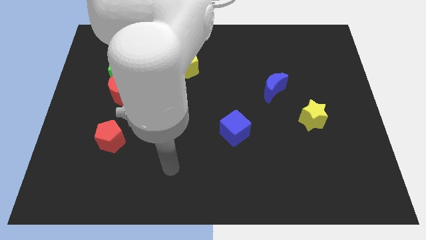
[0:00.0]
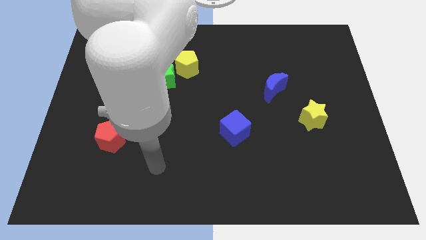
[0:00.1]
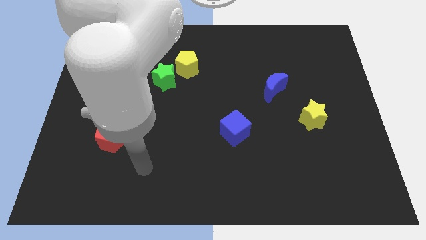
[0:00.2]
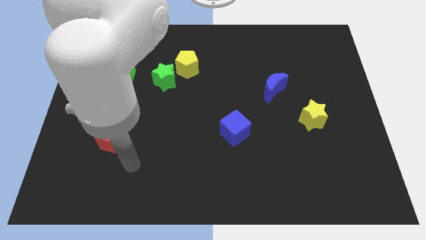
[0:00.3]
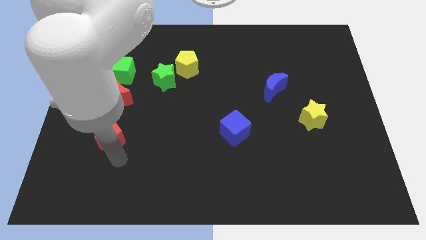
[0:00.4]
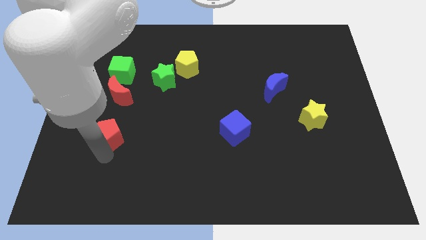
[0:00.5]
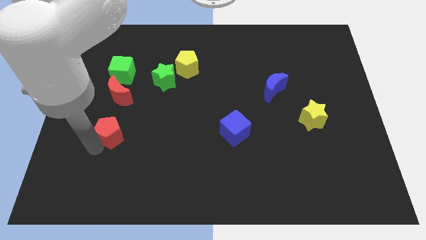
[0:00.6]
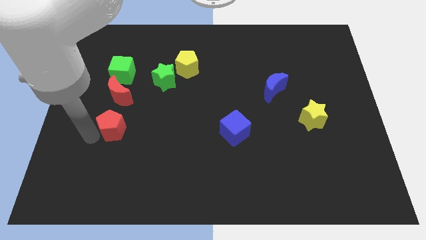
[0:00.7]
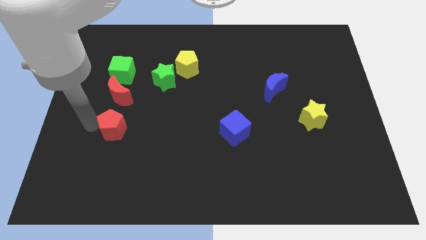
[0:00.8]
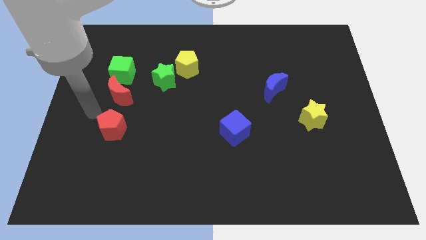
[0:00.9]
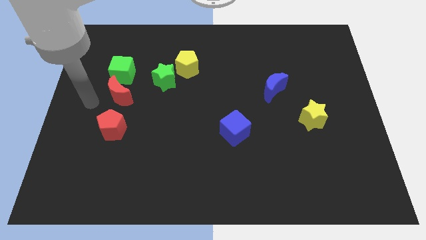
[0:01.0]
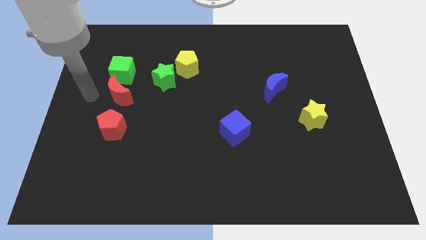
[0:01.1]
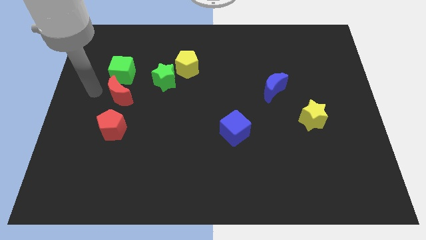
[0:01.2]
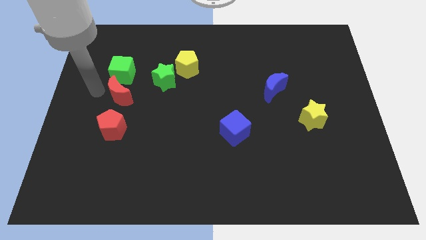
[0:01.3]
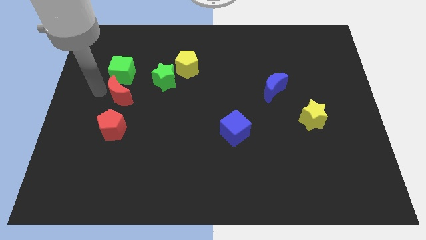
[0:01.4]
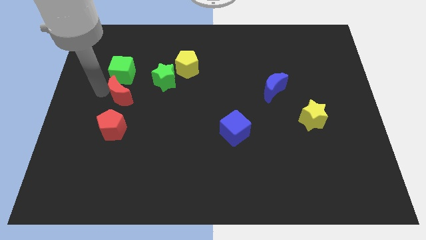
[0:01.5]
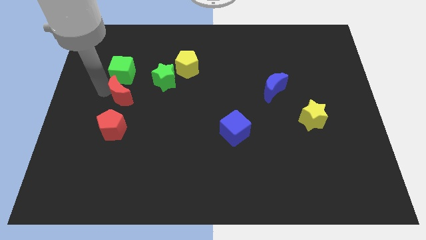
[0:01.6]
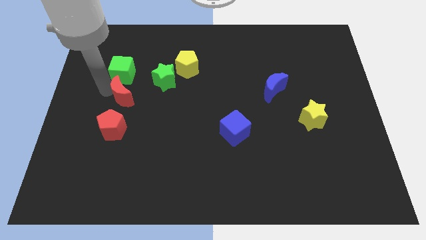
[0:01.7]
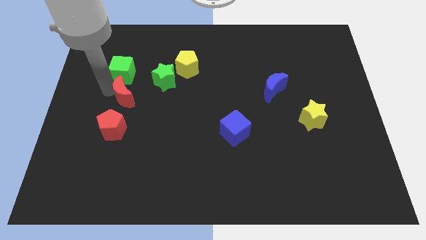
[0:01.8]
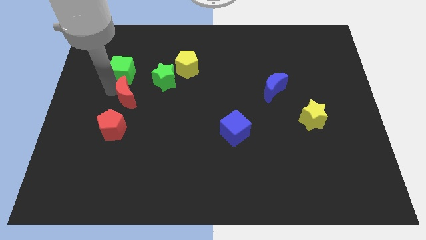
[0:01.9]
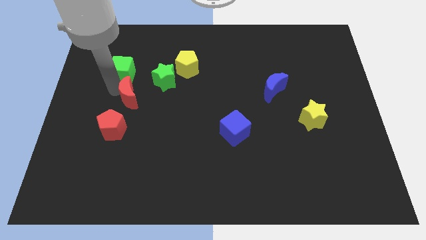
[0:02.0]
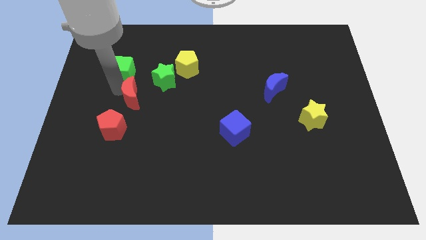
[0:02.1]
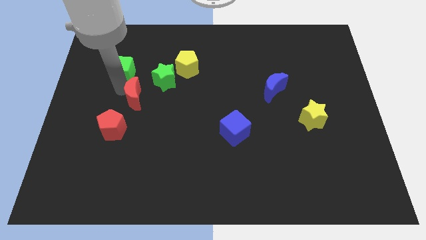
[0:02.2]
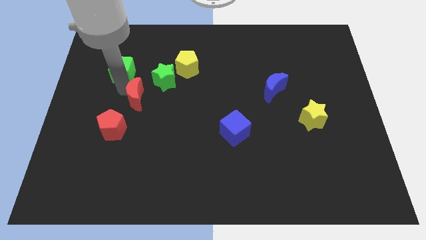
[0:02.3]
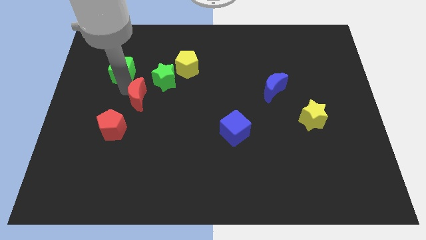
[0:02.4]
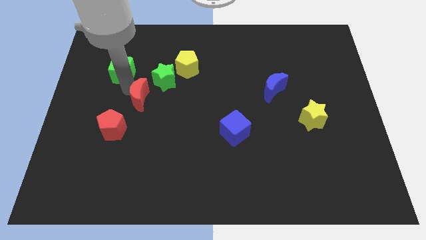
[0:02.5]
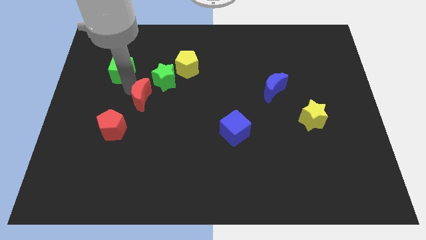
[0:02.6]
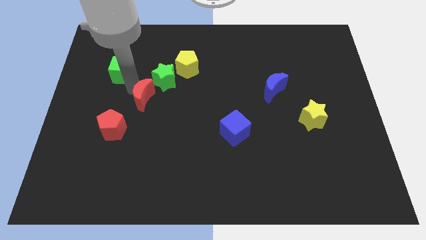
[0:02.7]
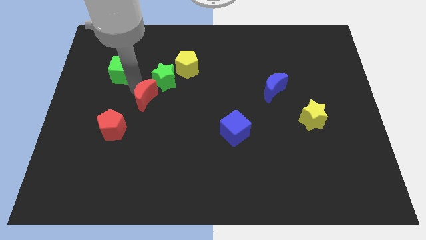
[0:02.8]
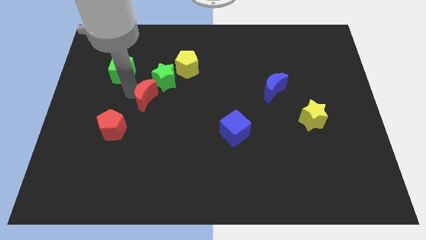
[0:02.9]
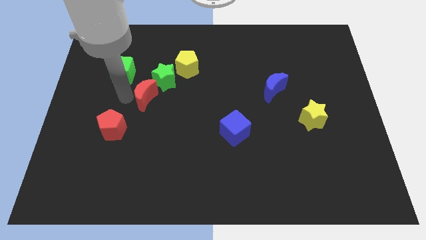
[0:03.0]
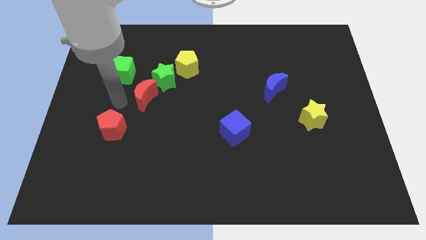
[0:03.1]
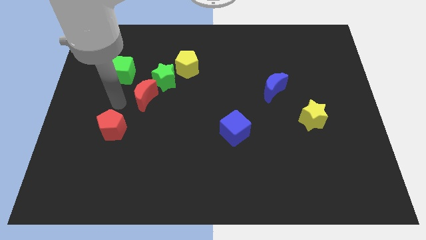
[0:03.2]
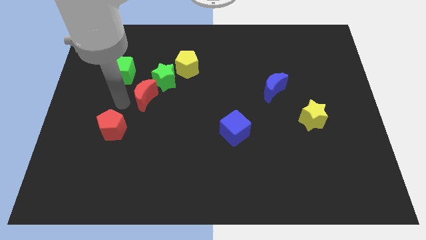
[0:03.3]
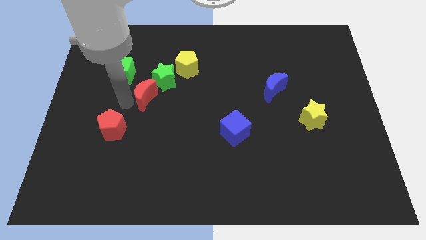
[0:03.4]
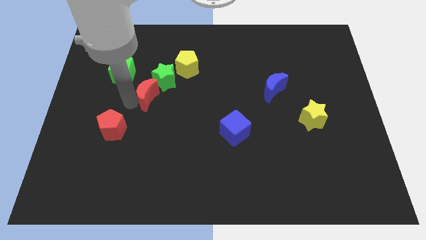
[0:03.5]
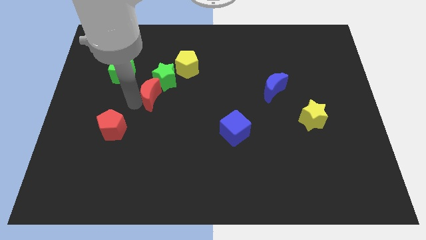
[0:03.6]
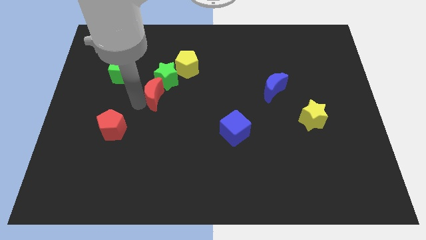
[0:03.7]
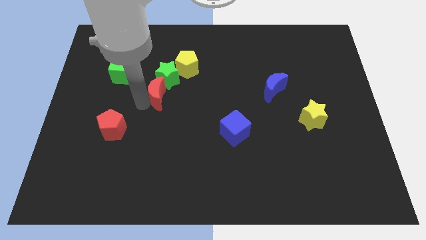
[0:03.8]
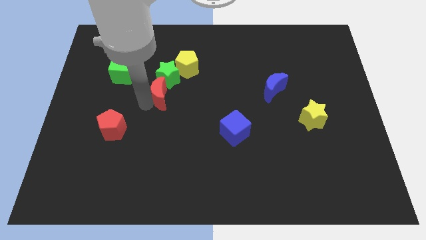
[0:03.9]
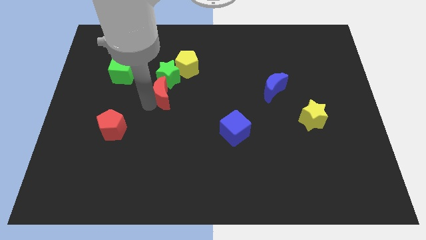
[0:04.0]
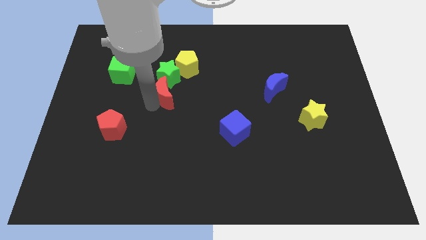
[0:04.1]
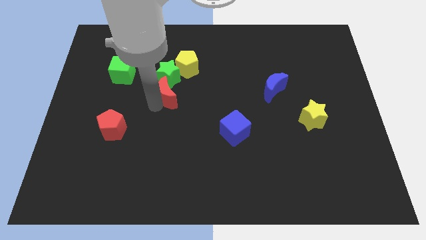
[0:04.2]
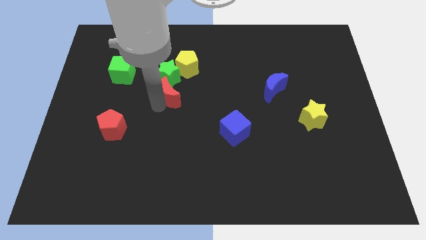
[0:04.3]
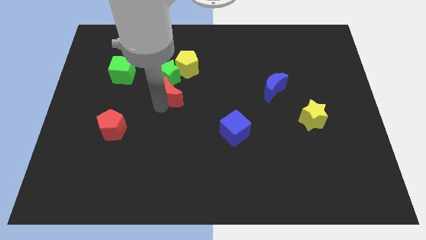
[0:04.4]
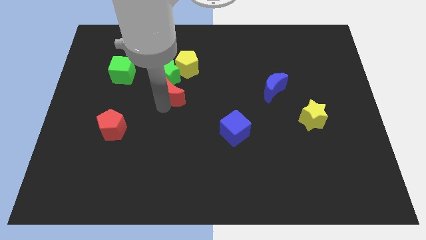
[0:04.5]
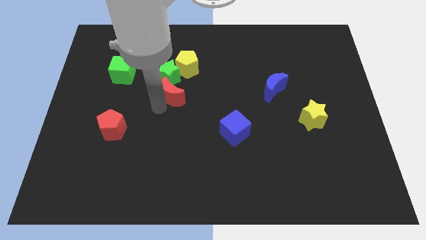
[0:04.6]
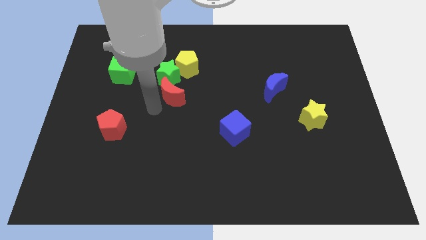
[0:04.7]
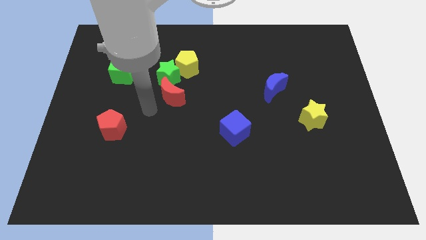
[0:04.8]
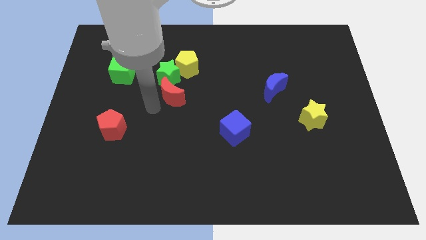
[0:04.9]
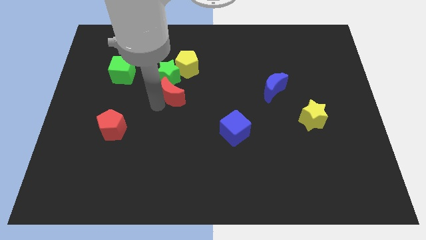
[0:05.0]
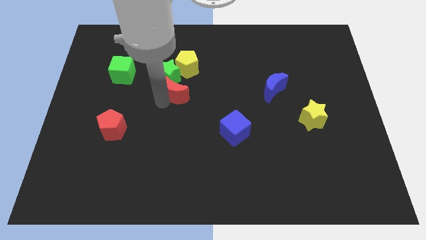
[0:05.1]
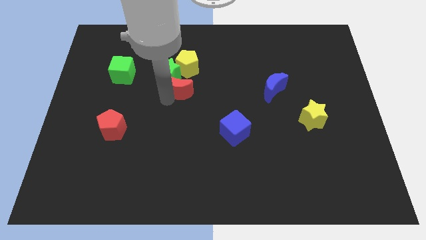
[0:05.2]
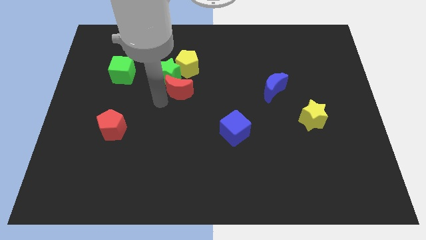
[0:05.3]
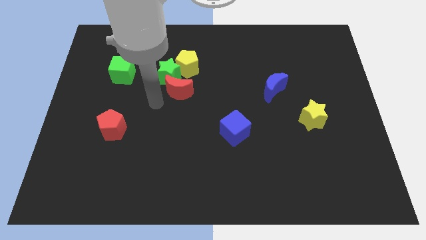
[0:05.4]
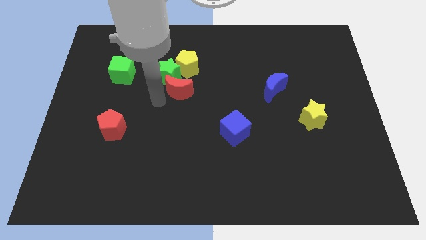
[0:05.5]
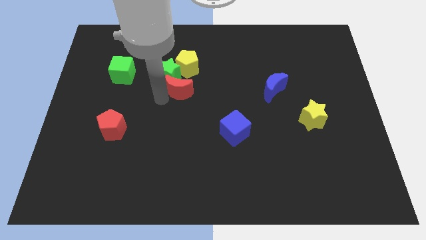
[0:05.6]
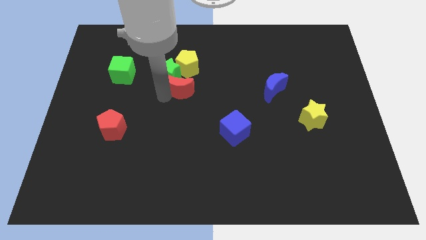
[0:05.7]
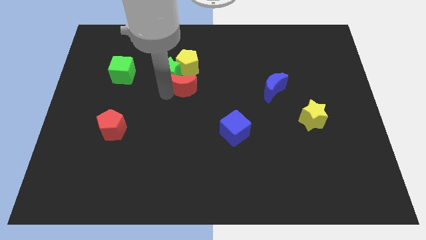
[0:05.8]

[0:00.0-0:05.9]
slide the red moon to the right of the green star

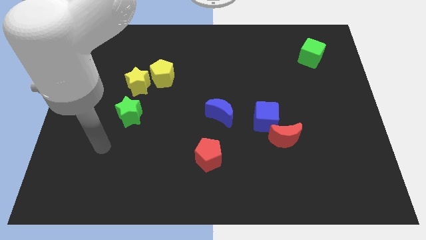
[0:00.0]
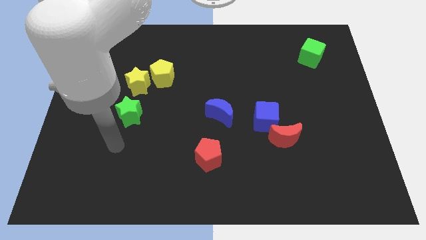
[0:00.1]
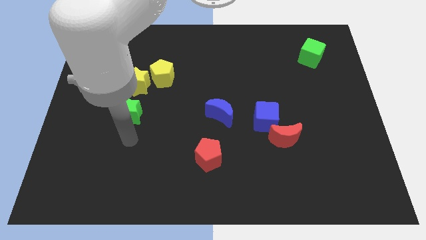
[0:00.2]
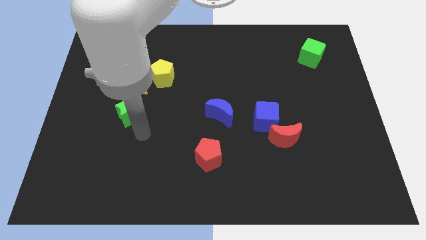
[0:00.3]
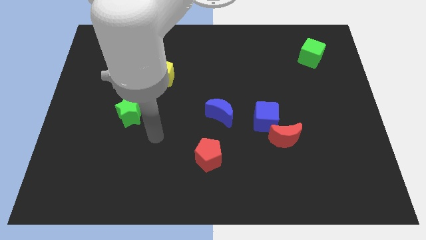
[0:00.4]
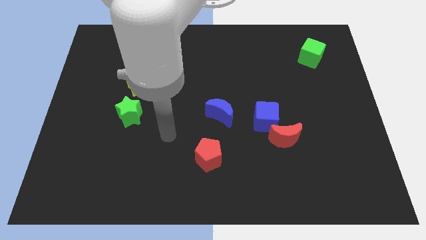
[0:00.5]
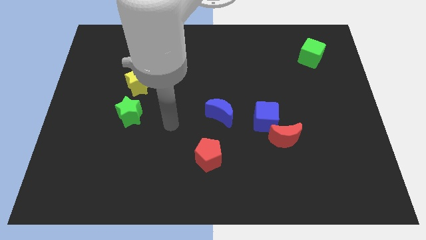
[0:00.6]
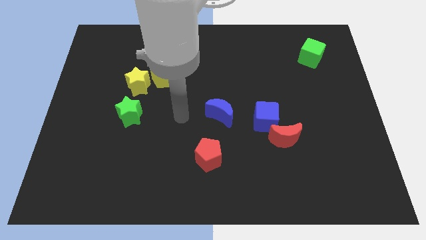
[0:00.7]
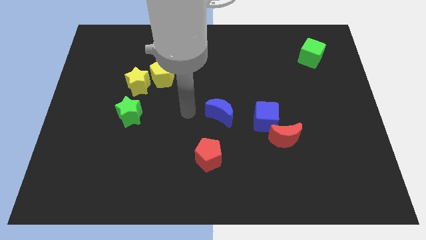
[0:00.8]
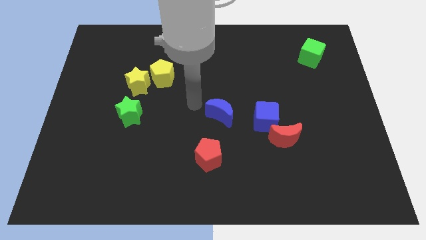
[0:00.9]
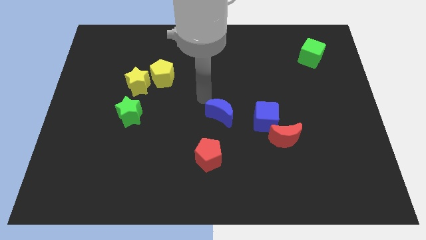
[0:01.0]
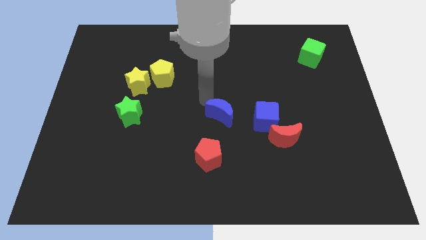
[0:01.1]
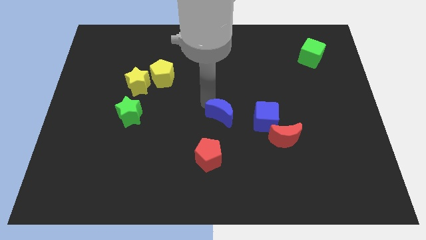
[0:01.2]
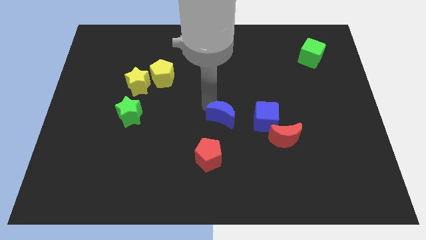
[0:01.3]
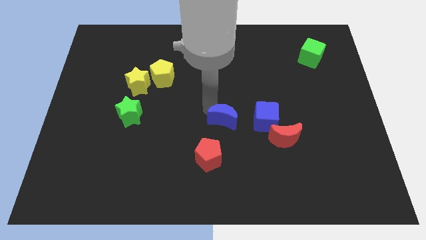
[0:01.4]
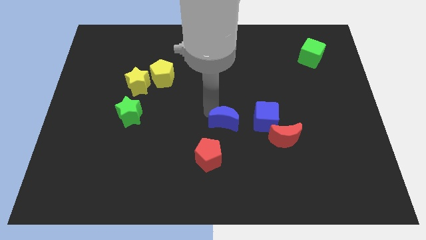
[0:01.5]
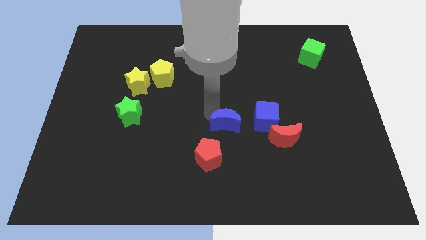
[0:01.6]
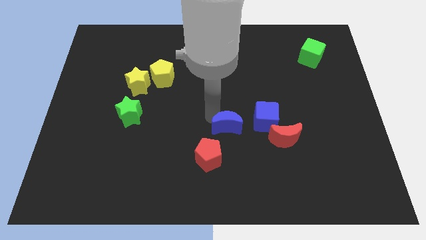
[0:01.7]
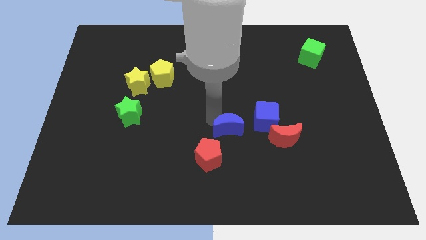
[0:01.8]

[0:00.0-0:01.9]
push the blue moon diagonally down and to the left of the blue cube

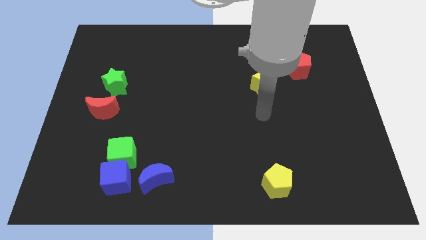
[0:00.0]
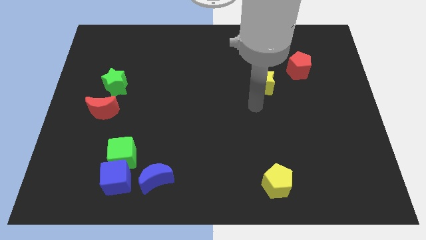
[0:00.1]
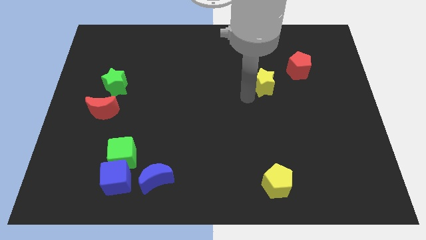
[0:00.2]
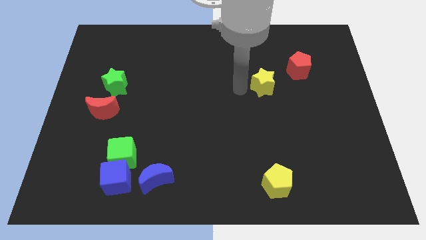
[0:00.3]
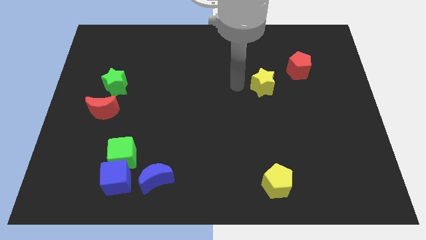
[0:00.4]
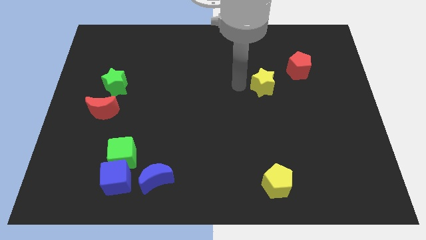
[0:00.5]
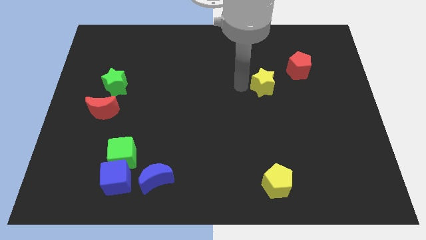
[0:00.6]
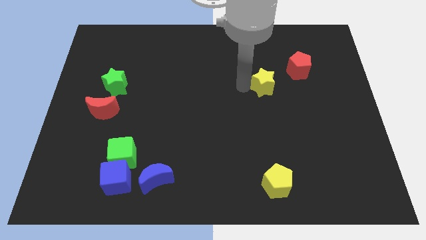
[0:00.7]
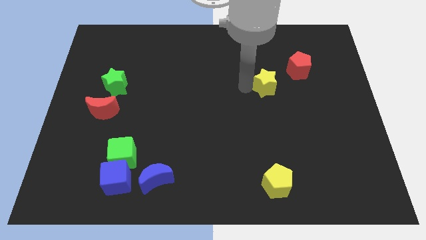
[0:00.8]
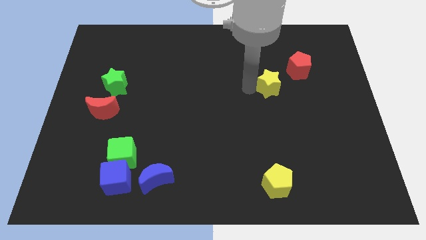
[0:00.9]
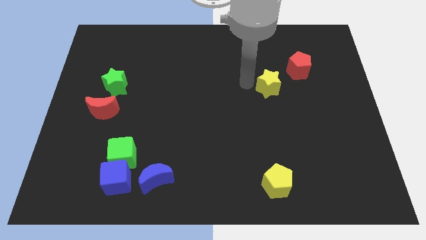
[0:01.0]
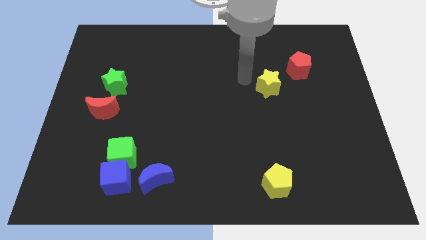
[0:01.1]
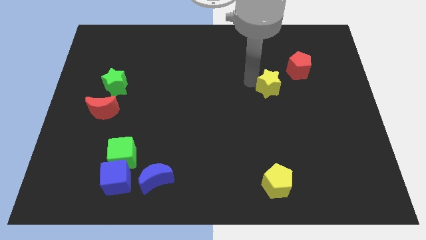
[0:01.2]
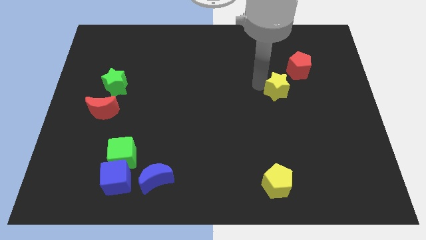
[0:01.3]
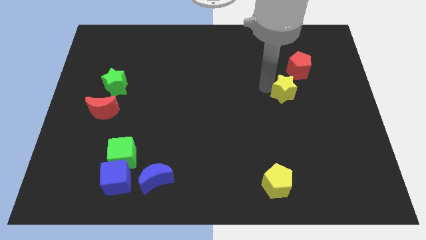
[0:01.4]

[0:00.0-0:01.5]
put the yellow star to the bottom of the red pentagon
